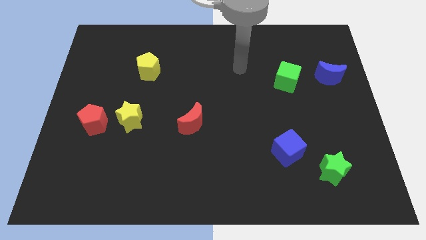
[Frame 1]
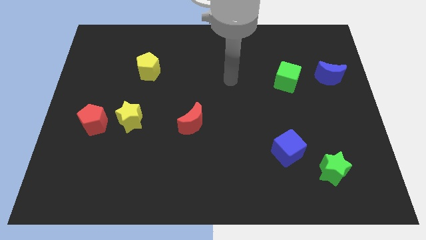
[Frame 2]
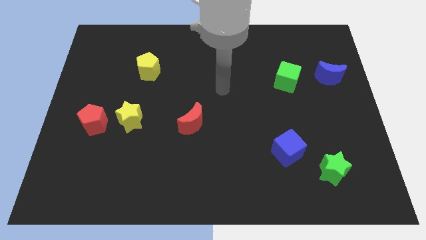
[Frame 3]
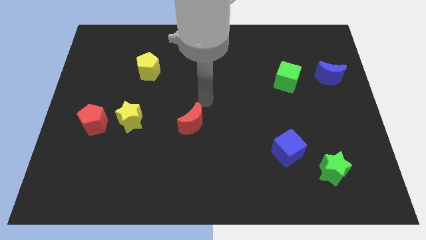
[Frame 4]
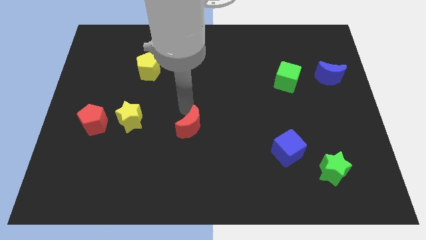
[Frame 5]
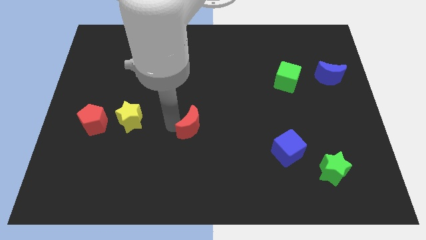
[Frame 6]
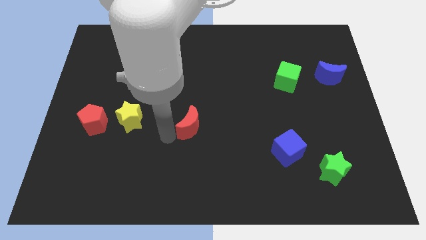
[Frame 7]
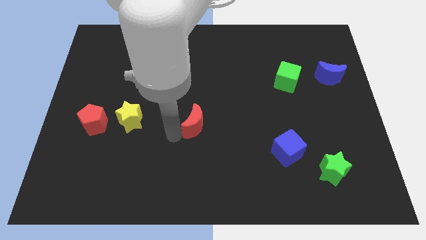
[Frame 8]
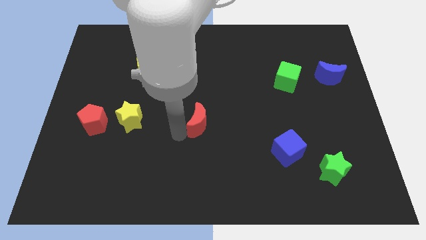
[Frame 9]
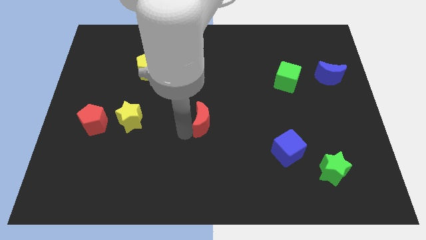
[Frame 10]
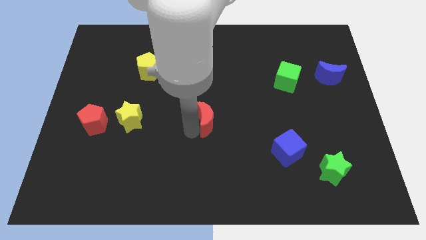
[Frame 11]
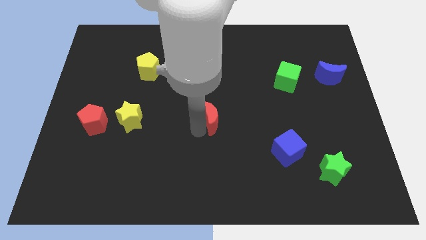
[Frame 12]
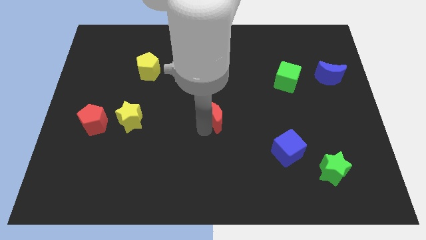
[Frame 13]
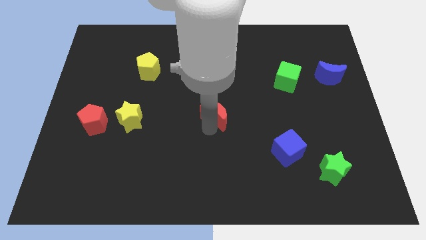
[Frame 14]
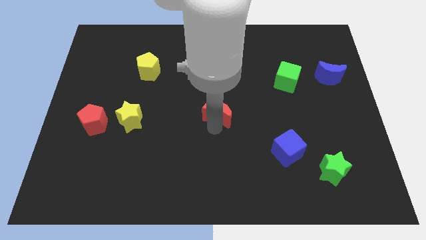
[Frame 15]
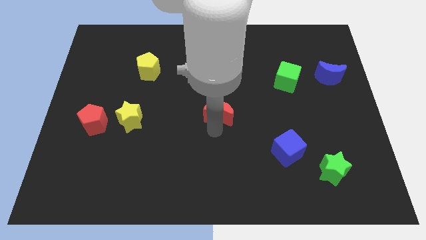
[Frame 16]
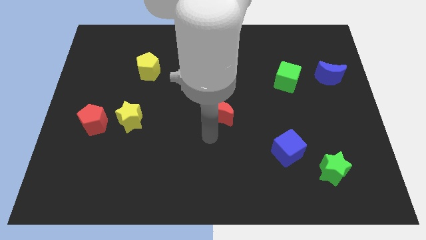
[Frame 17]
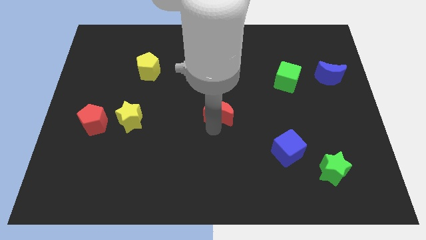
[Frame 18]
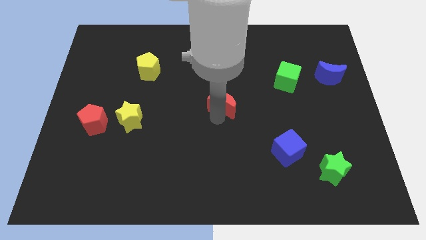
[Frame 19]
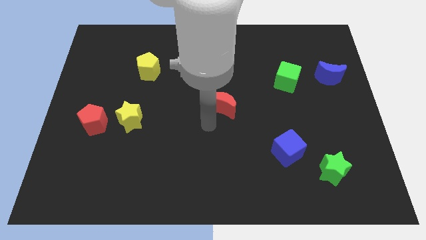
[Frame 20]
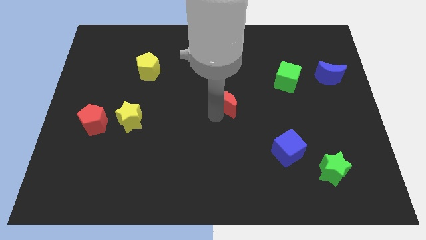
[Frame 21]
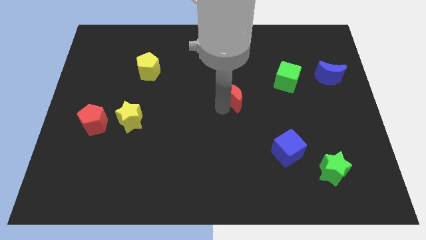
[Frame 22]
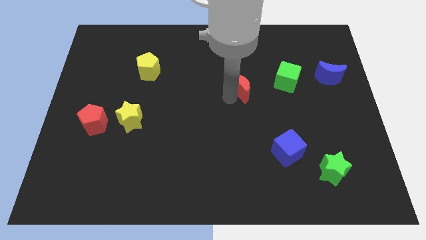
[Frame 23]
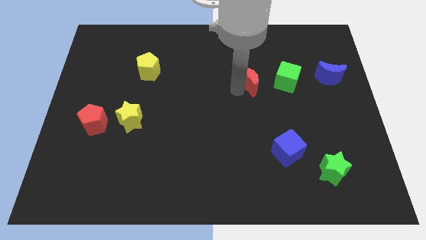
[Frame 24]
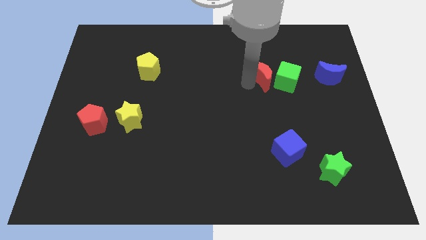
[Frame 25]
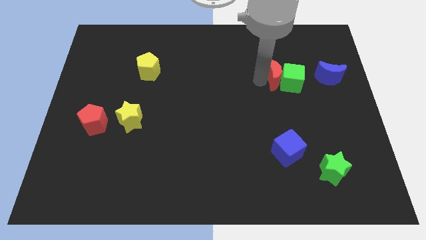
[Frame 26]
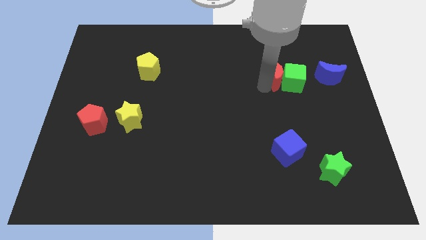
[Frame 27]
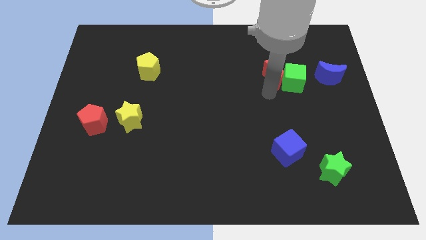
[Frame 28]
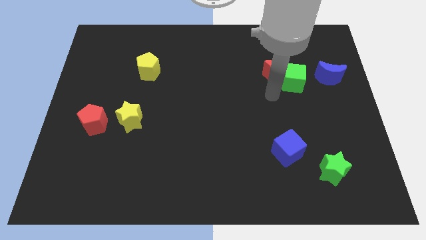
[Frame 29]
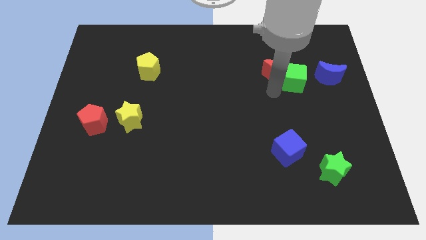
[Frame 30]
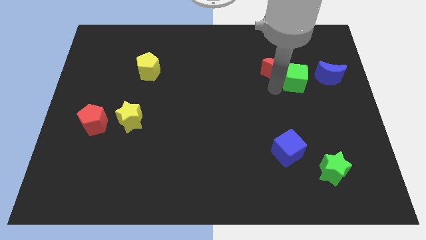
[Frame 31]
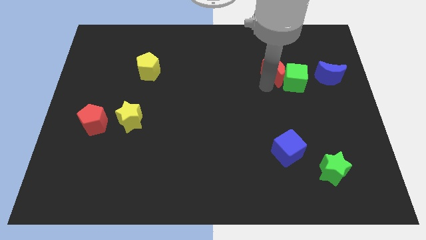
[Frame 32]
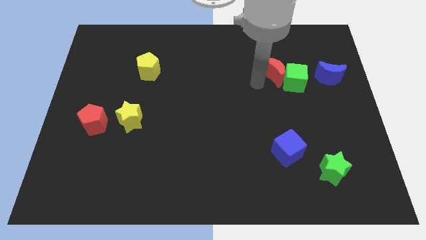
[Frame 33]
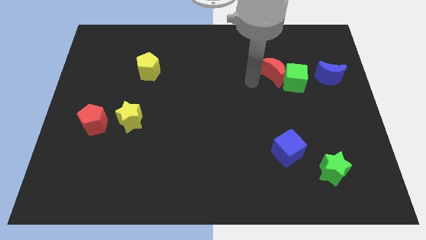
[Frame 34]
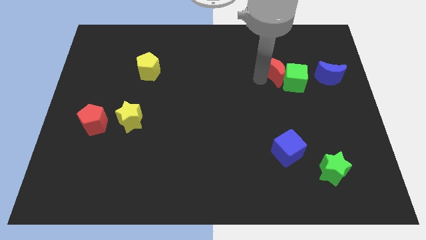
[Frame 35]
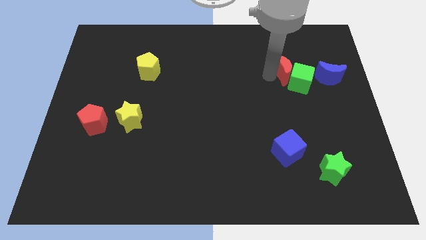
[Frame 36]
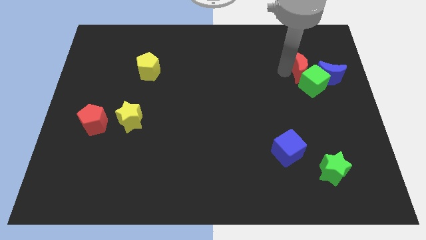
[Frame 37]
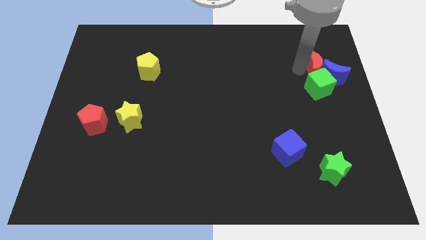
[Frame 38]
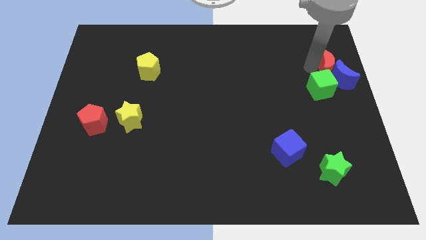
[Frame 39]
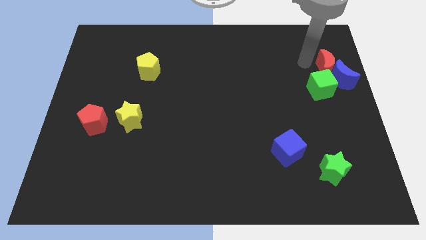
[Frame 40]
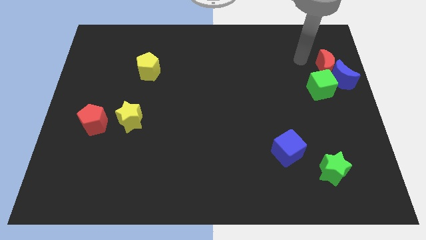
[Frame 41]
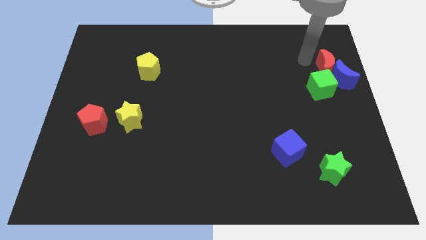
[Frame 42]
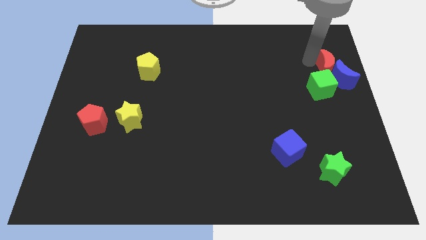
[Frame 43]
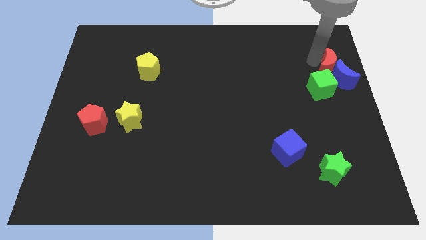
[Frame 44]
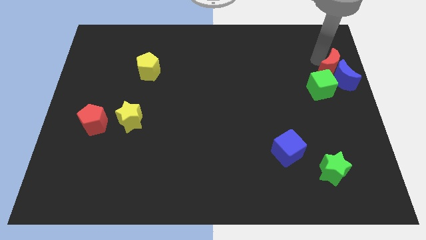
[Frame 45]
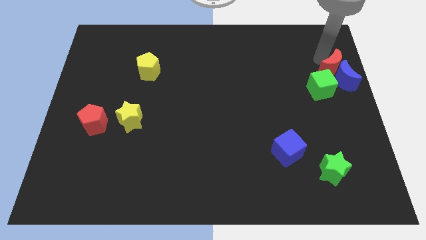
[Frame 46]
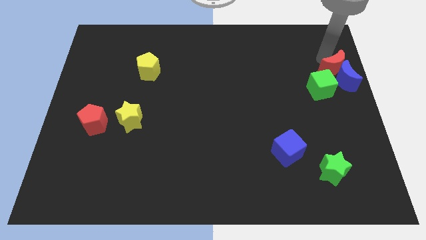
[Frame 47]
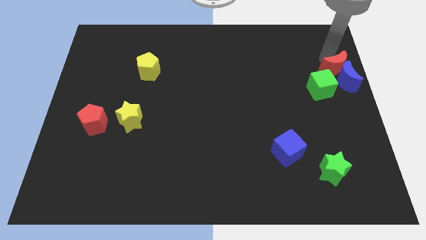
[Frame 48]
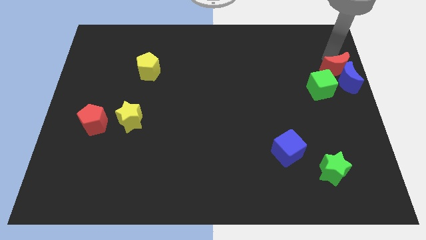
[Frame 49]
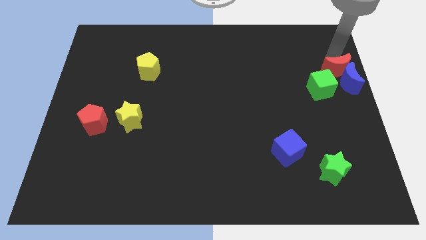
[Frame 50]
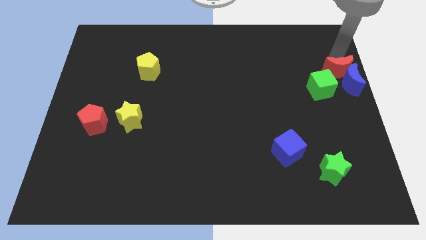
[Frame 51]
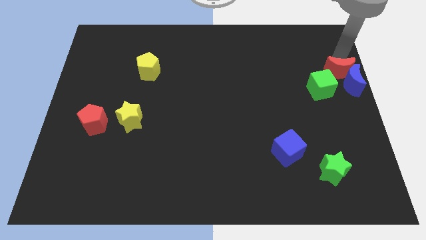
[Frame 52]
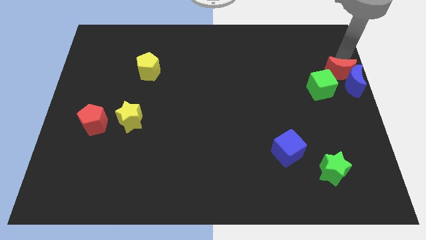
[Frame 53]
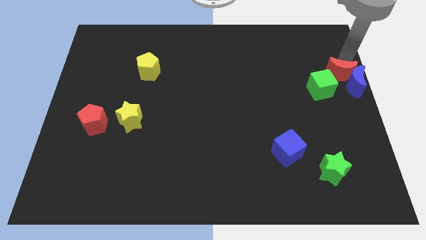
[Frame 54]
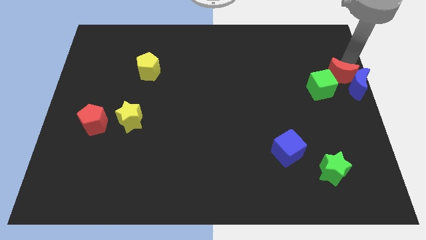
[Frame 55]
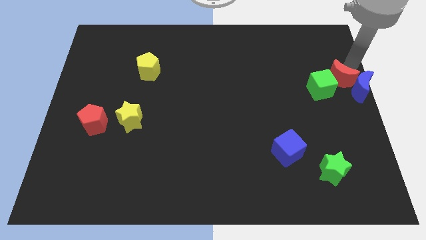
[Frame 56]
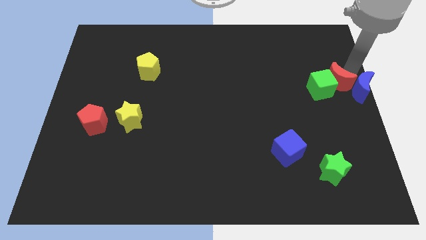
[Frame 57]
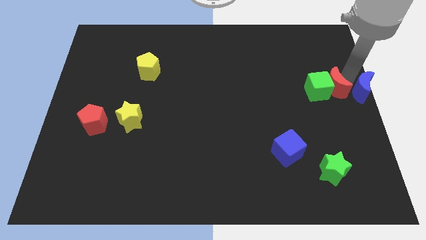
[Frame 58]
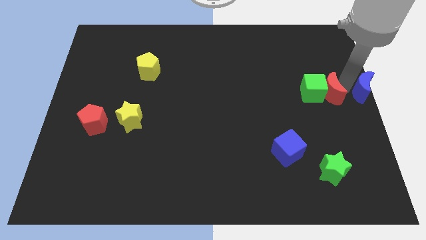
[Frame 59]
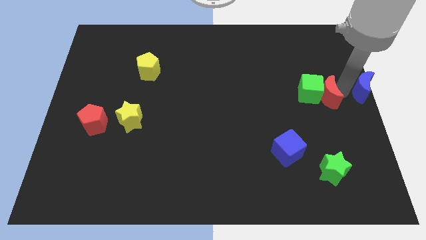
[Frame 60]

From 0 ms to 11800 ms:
push the red moon diagonally up and to the right of the green cube

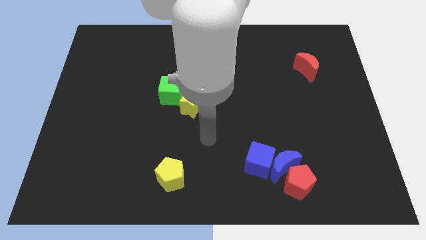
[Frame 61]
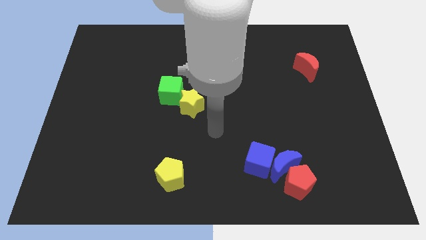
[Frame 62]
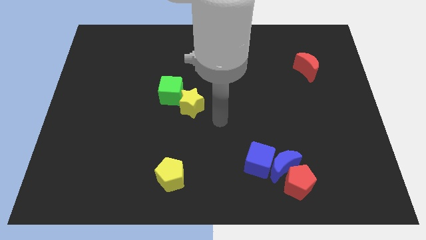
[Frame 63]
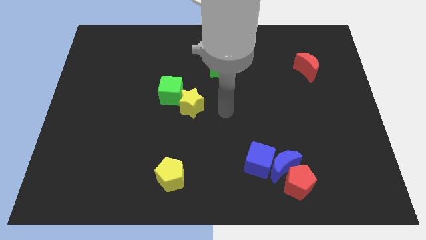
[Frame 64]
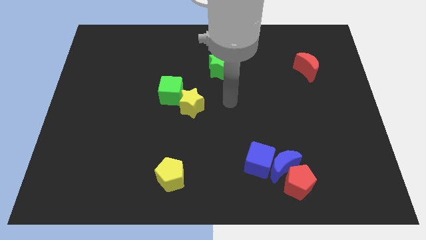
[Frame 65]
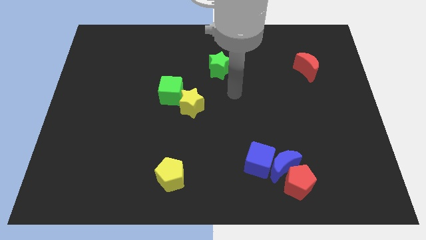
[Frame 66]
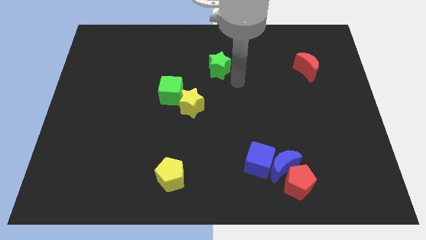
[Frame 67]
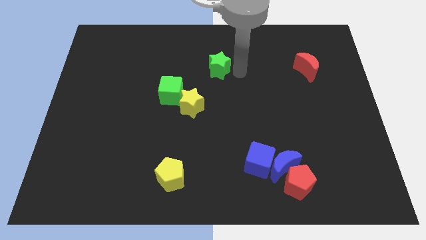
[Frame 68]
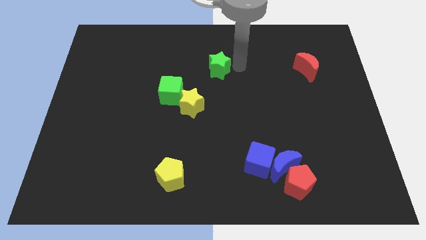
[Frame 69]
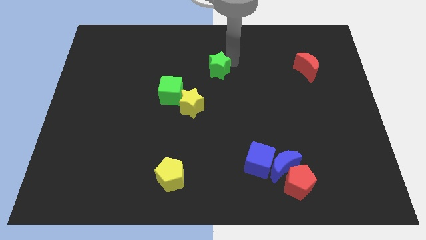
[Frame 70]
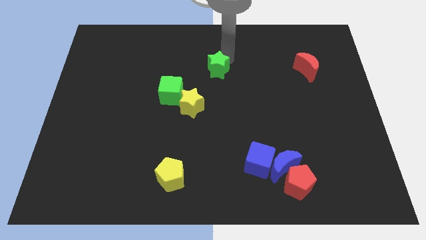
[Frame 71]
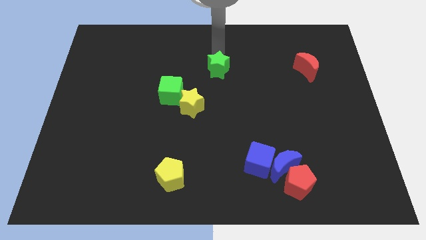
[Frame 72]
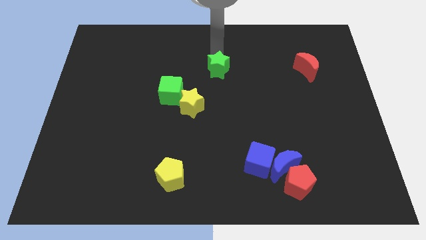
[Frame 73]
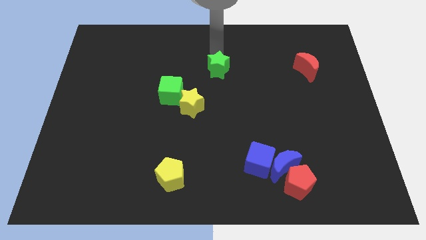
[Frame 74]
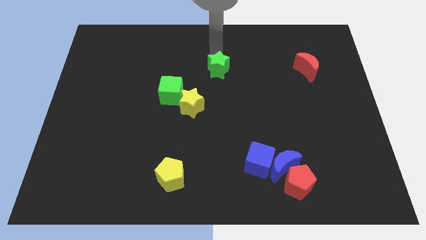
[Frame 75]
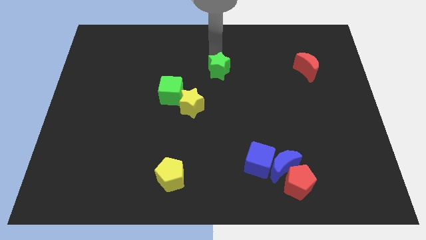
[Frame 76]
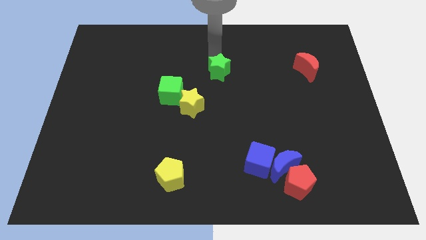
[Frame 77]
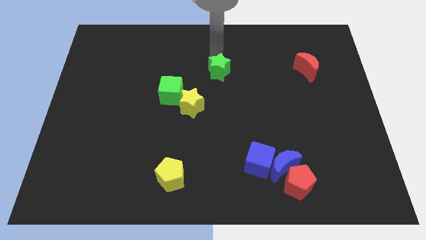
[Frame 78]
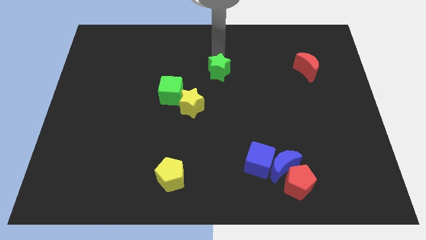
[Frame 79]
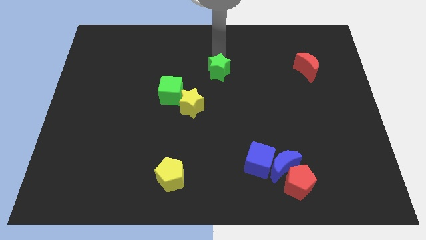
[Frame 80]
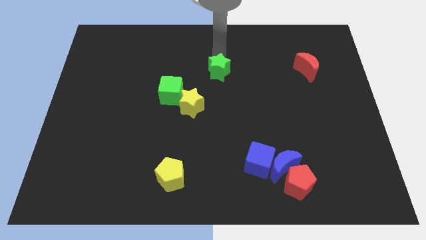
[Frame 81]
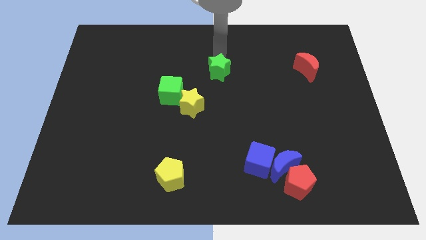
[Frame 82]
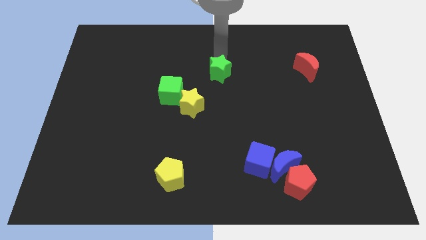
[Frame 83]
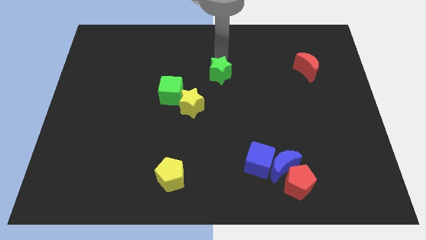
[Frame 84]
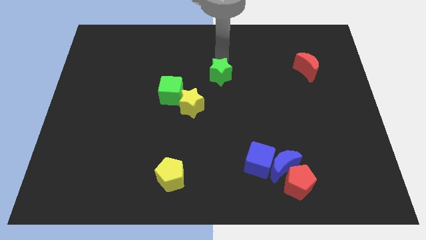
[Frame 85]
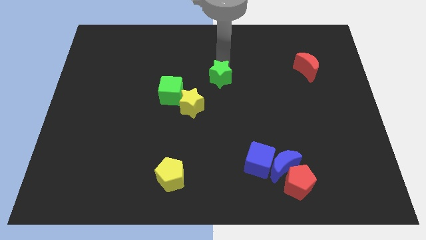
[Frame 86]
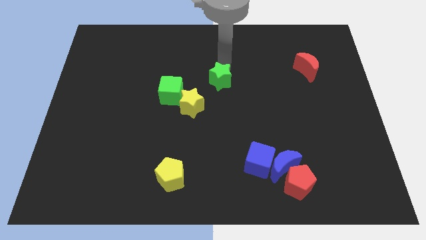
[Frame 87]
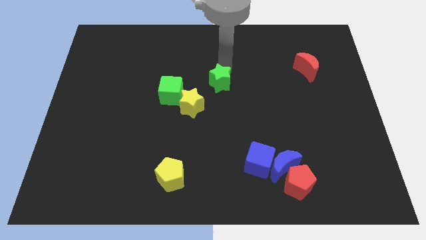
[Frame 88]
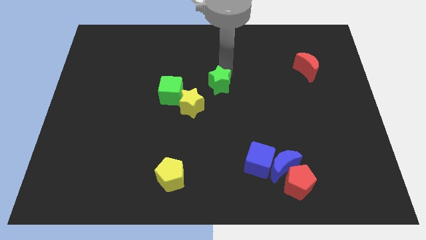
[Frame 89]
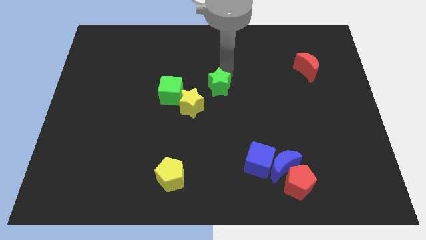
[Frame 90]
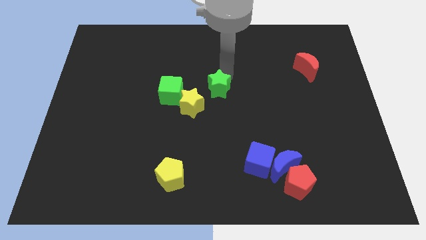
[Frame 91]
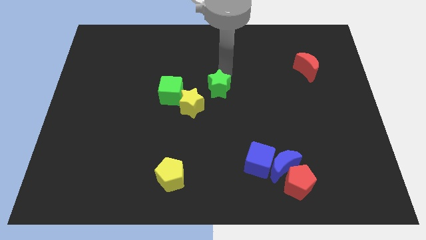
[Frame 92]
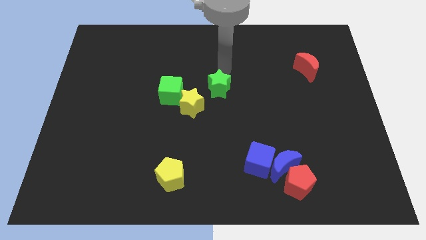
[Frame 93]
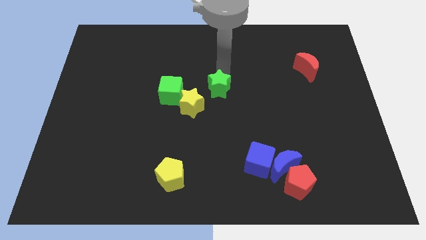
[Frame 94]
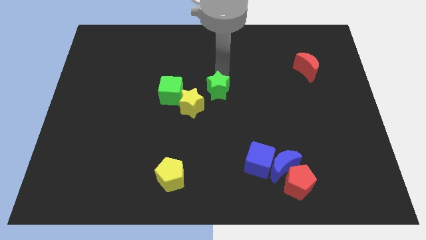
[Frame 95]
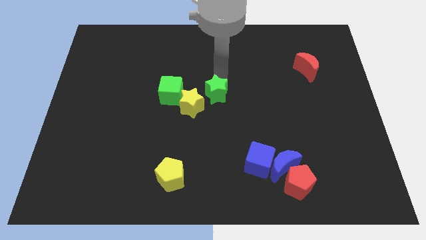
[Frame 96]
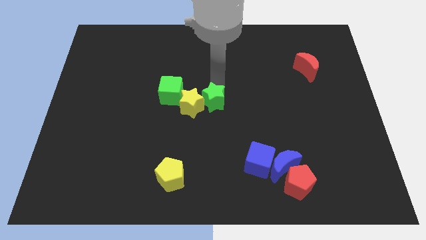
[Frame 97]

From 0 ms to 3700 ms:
push the green star to the bottom right side of the yellow star
